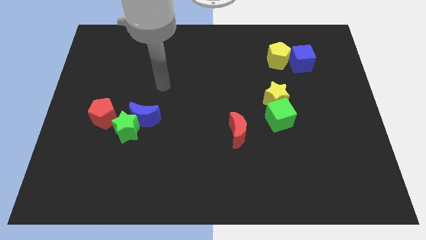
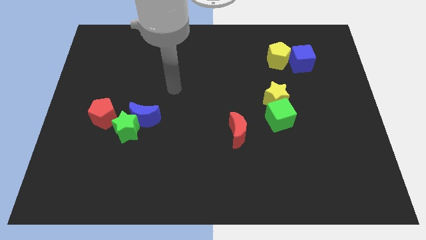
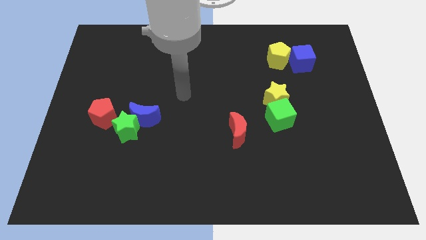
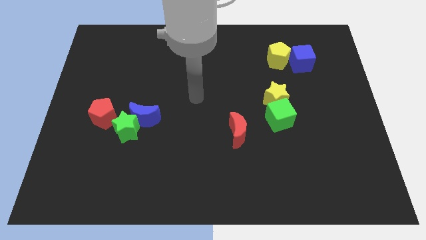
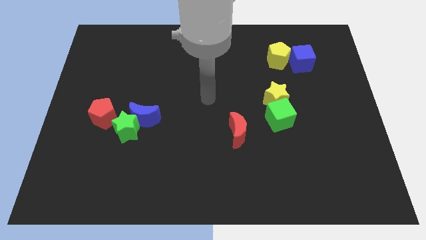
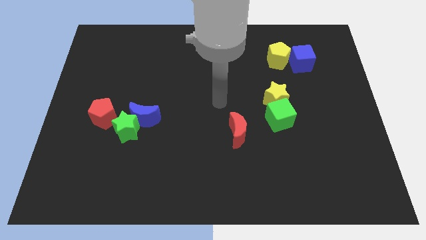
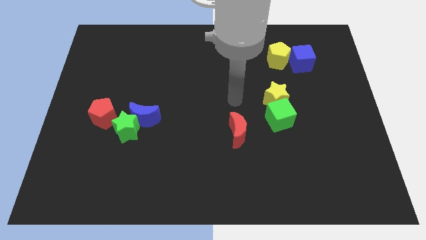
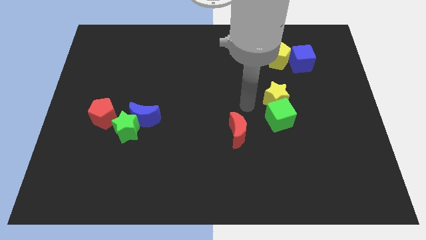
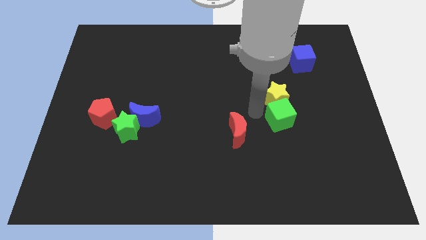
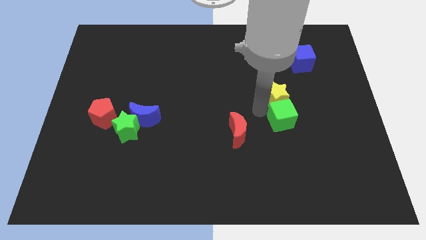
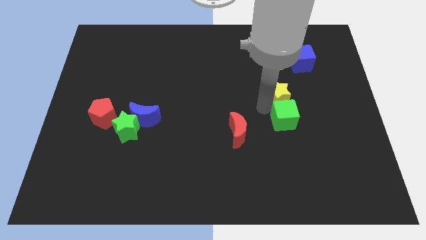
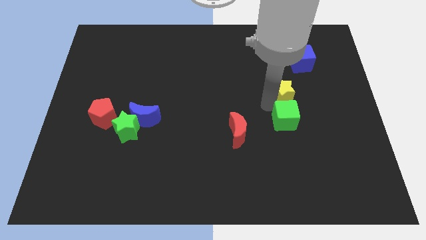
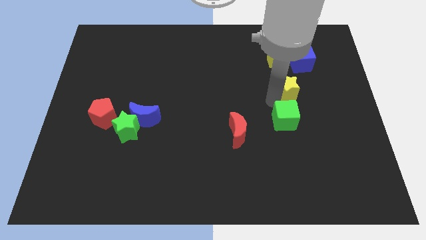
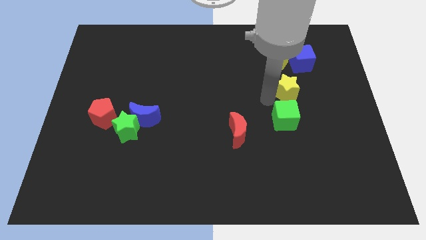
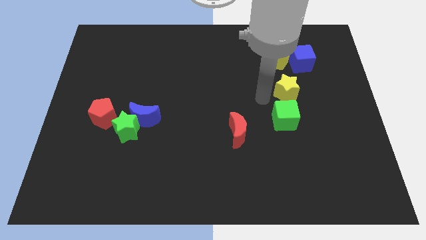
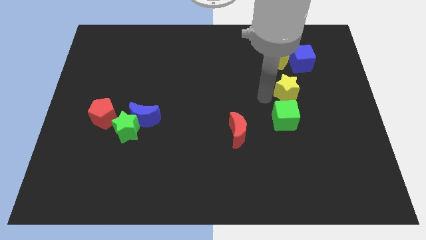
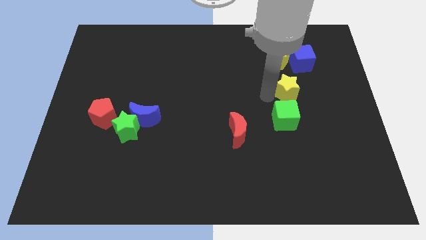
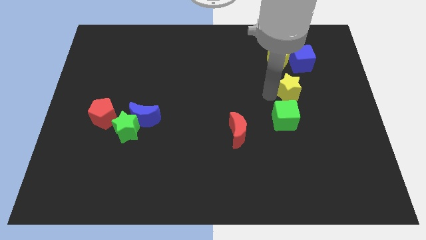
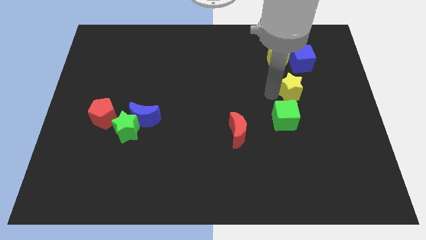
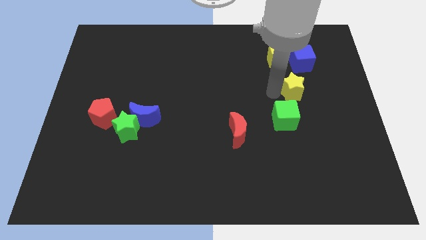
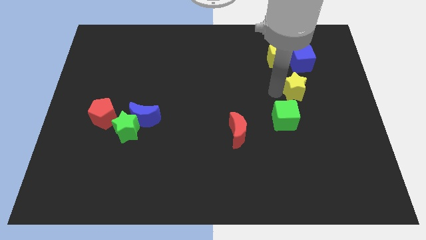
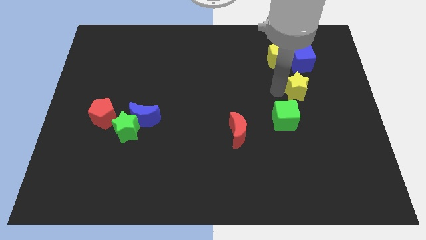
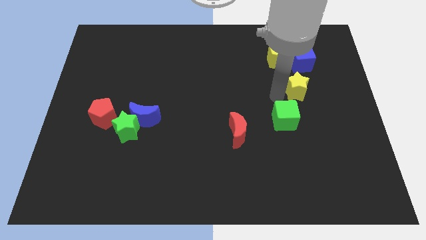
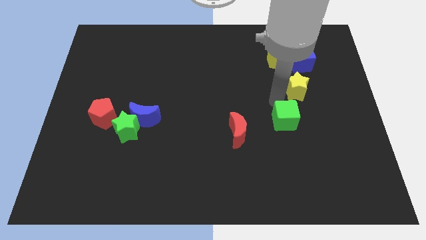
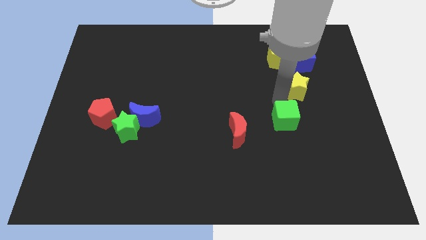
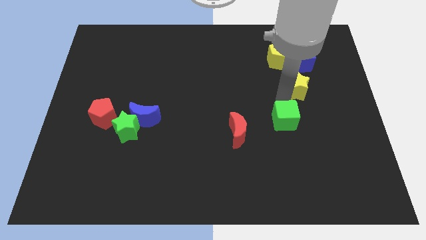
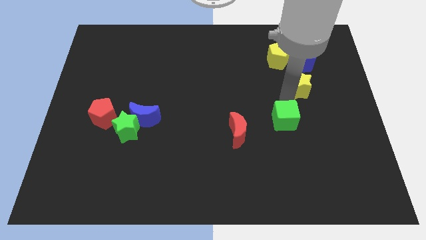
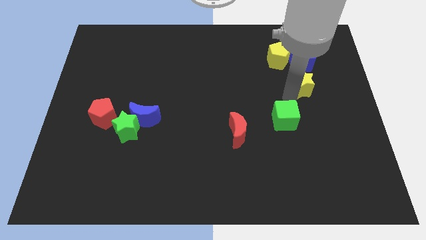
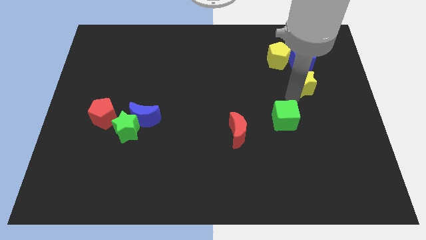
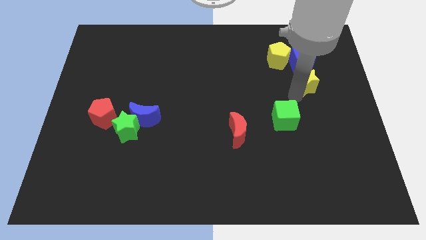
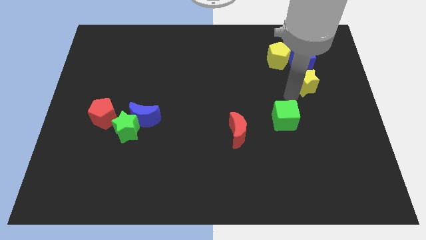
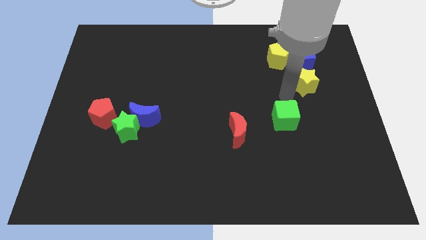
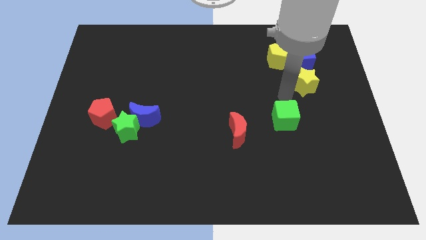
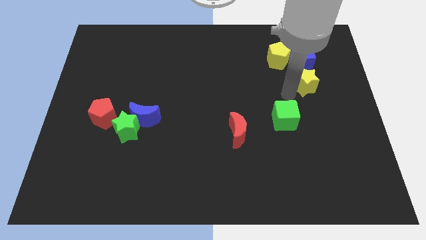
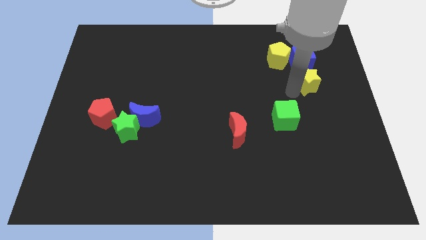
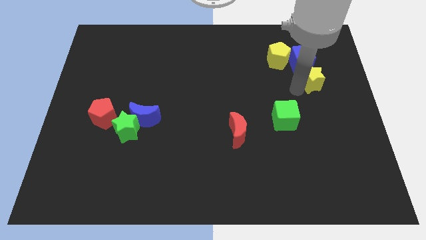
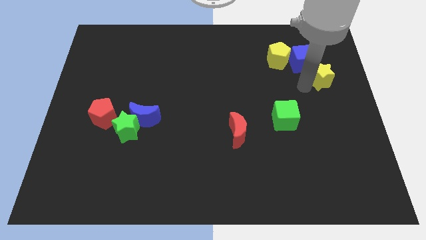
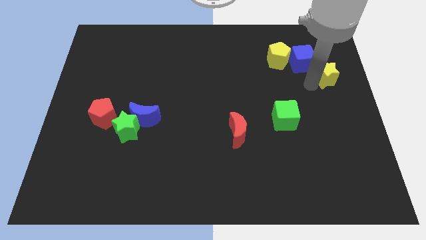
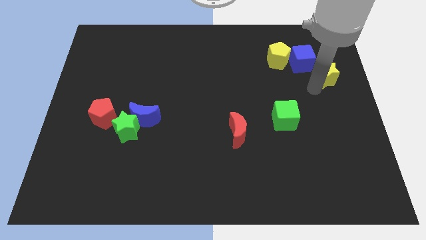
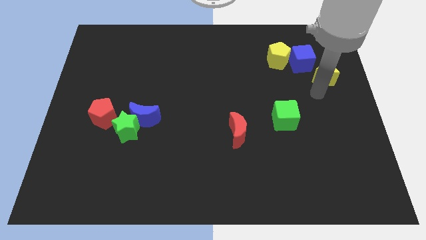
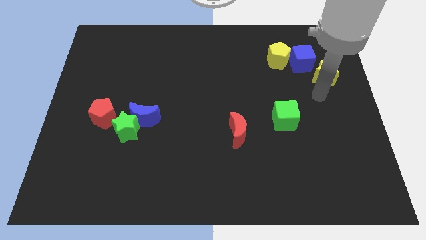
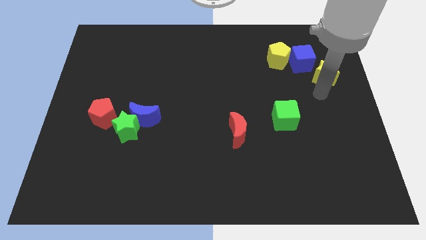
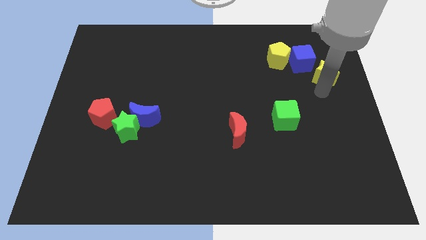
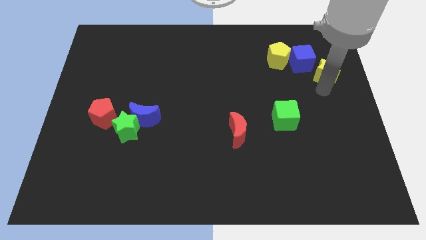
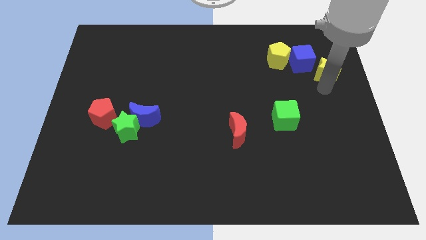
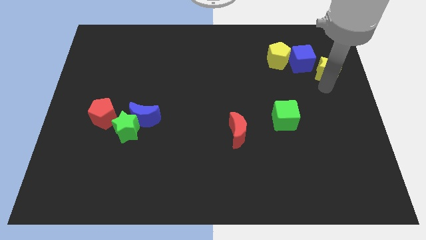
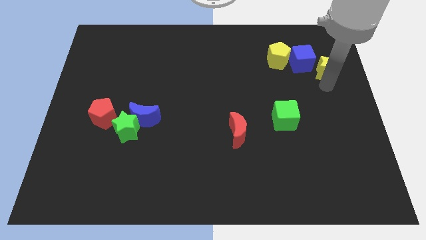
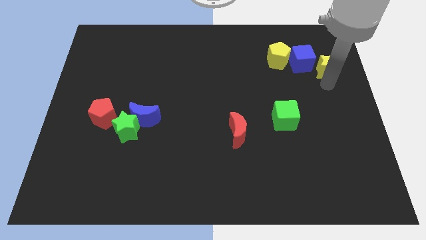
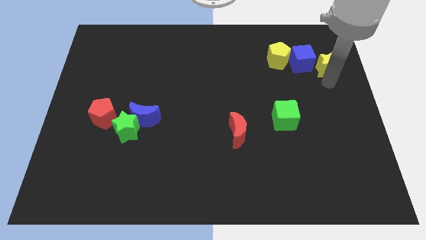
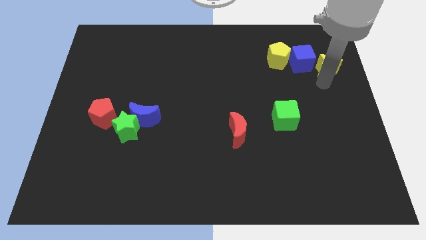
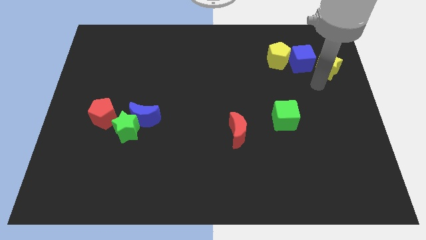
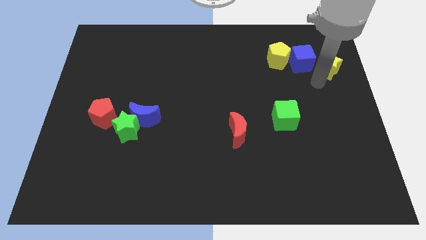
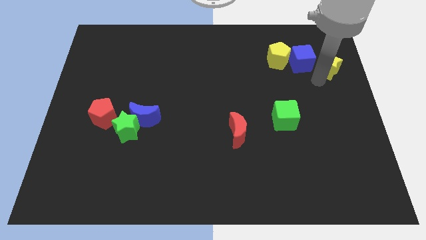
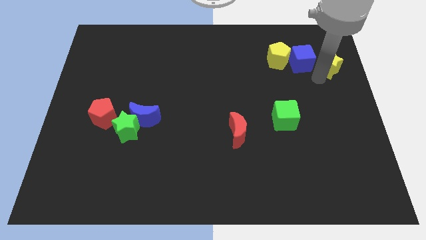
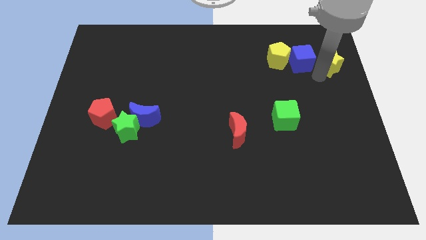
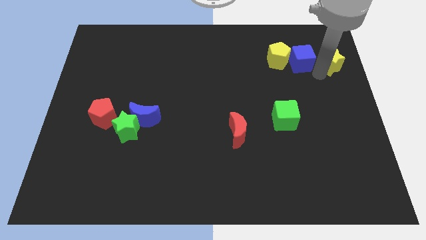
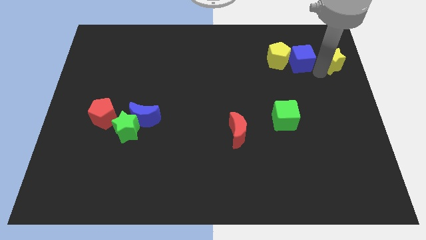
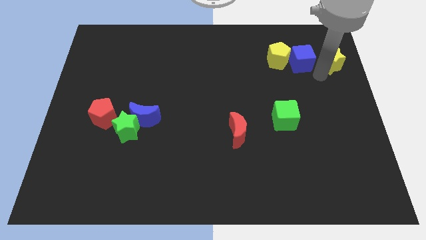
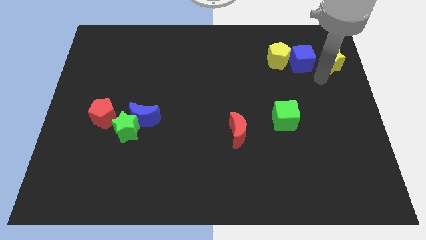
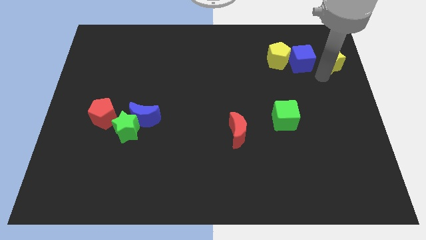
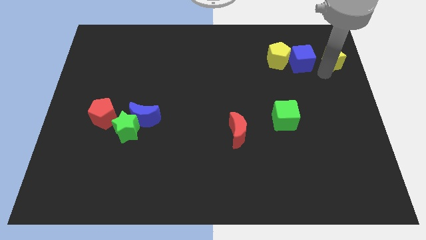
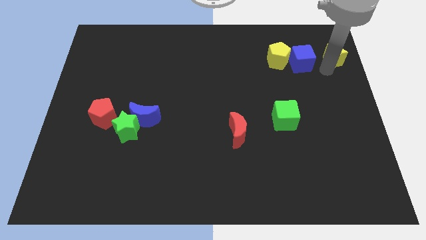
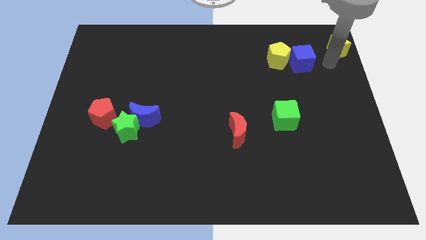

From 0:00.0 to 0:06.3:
push the yellow star to the top right
